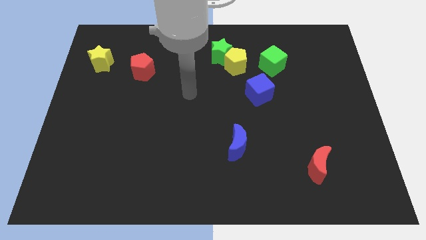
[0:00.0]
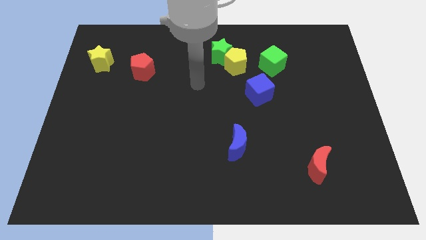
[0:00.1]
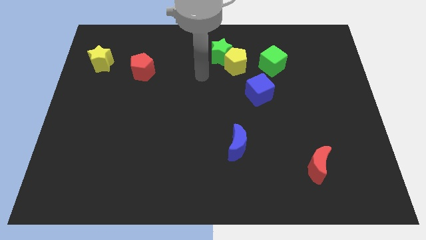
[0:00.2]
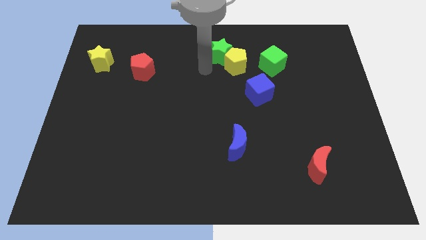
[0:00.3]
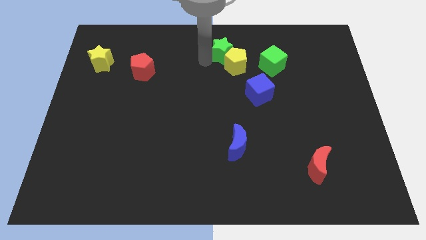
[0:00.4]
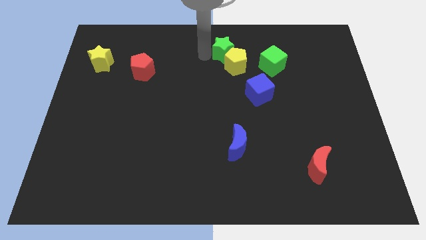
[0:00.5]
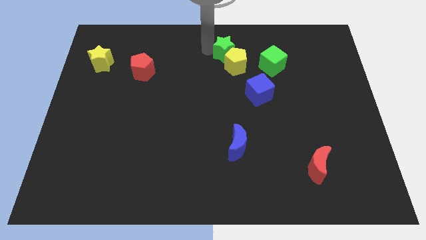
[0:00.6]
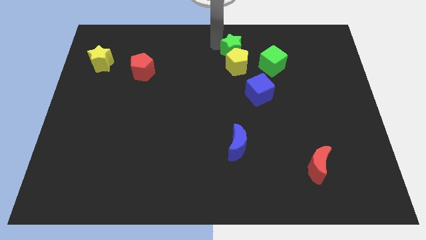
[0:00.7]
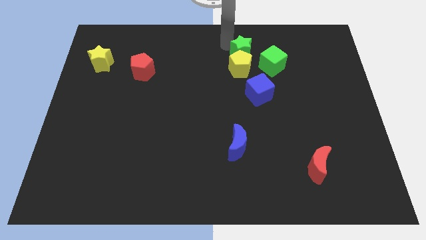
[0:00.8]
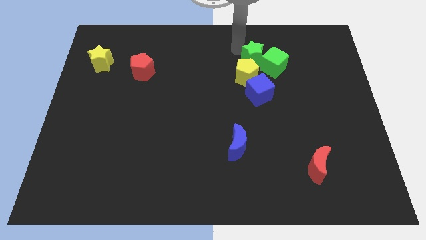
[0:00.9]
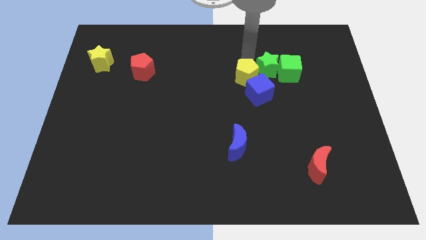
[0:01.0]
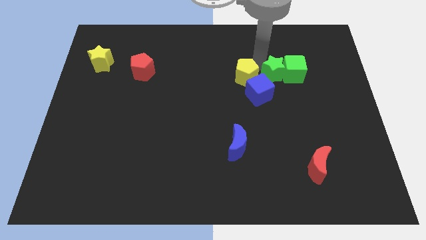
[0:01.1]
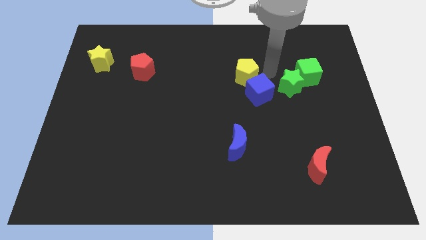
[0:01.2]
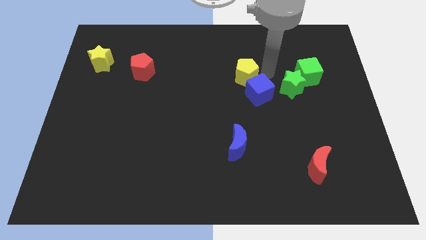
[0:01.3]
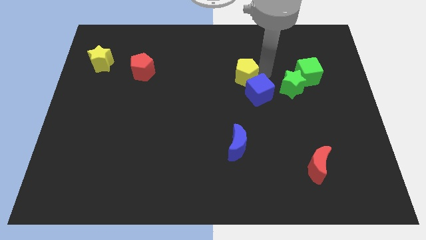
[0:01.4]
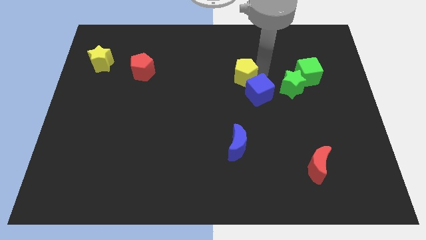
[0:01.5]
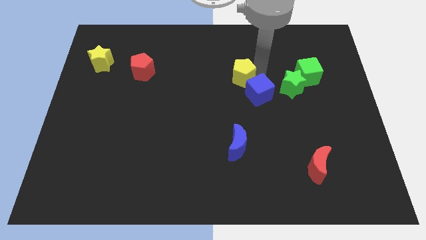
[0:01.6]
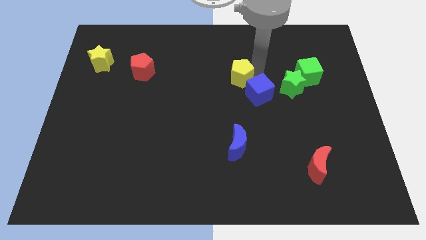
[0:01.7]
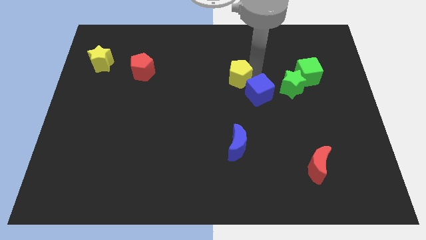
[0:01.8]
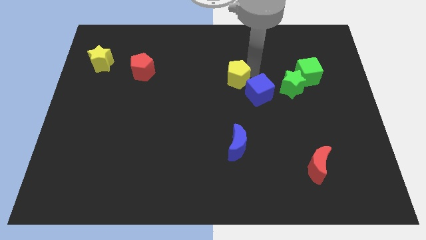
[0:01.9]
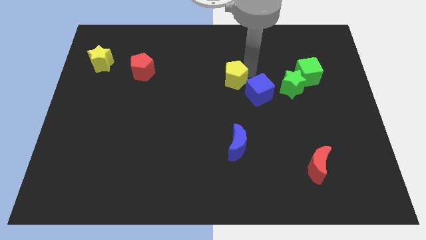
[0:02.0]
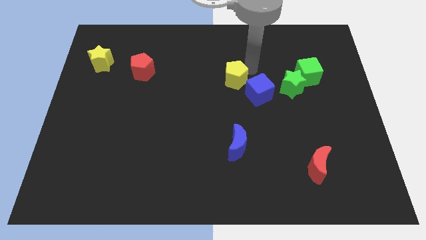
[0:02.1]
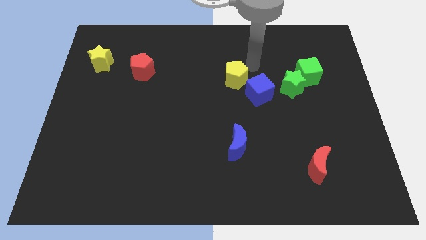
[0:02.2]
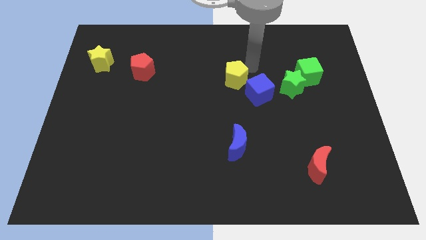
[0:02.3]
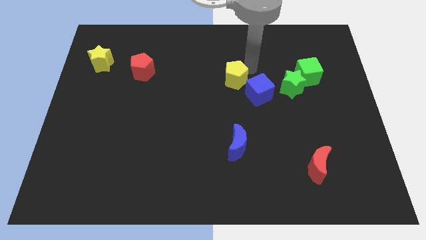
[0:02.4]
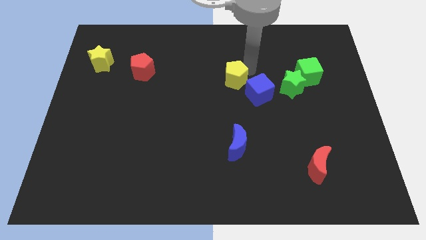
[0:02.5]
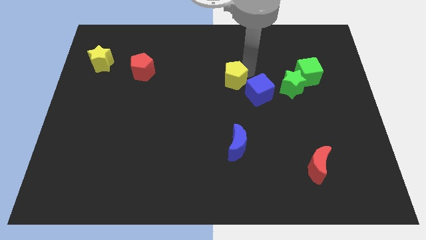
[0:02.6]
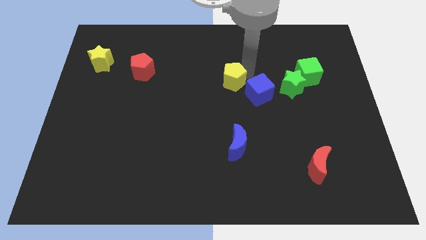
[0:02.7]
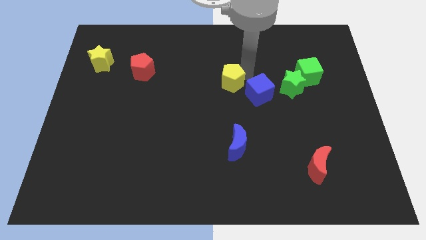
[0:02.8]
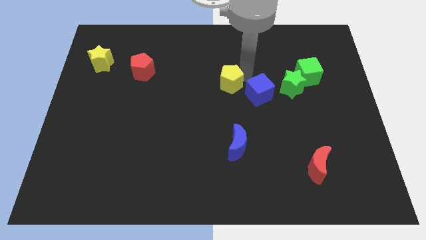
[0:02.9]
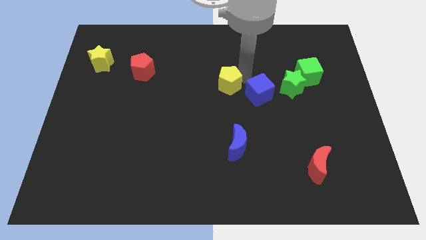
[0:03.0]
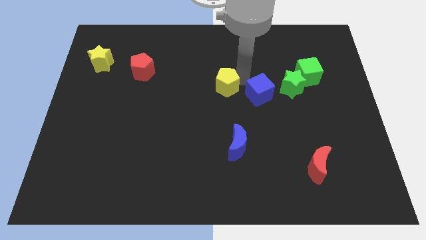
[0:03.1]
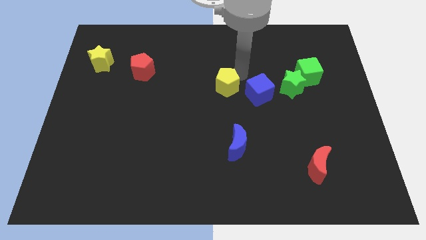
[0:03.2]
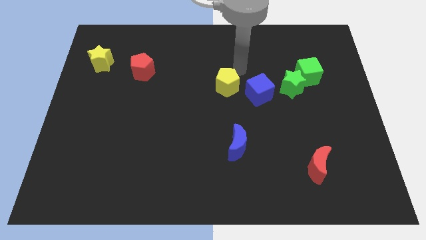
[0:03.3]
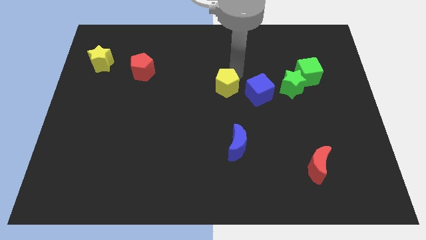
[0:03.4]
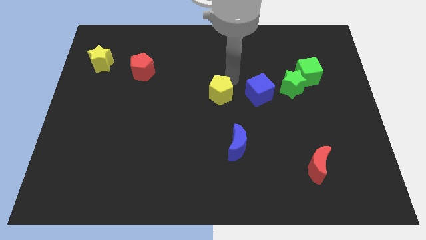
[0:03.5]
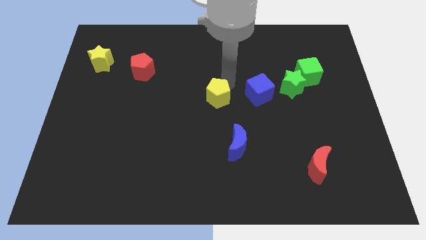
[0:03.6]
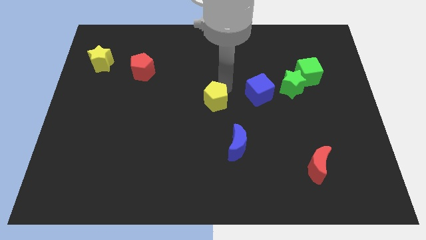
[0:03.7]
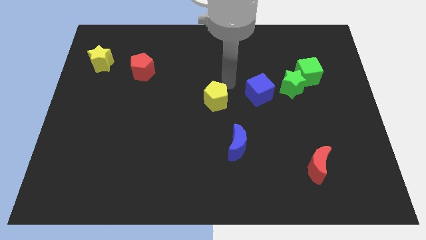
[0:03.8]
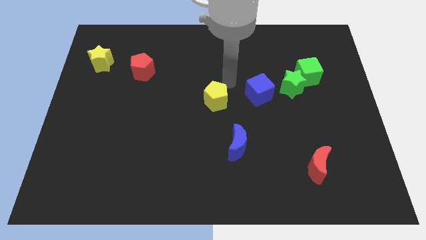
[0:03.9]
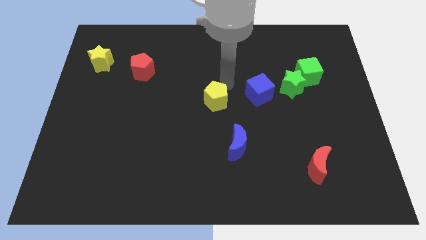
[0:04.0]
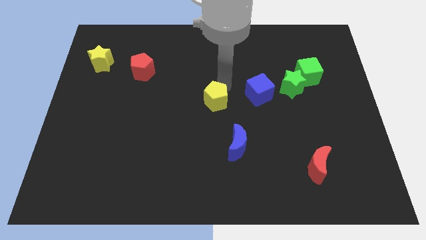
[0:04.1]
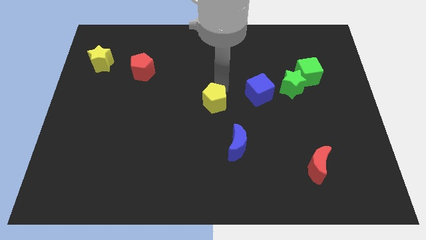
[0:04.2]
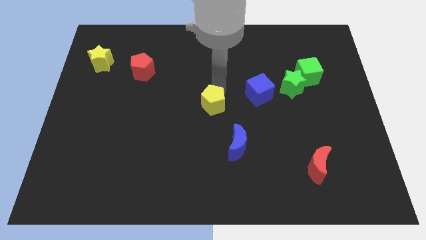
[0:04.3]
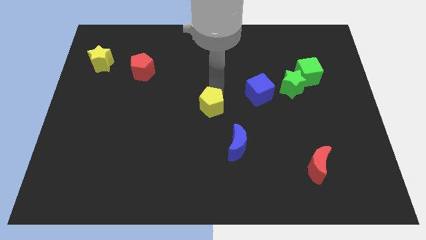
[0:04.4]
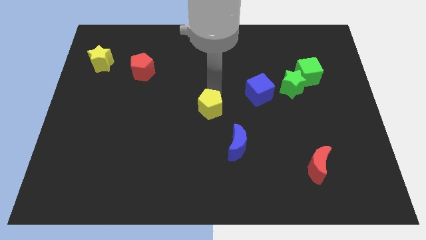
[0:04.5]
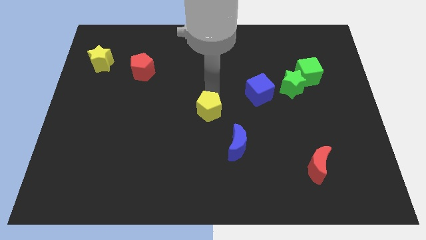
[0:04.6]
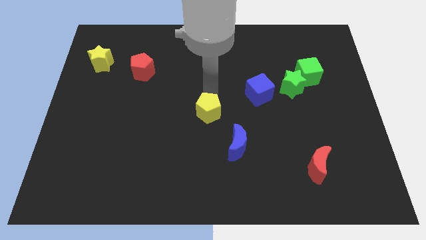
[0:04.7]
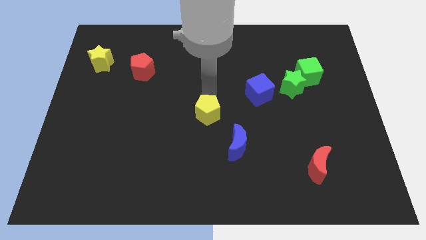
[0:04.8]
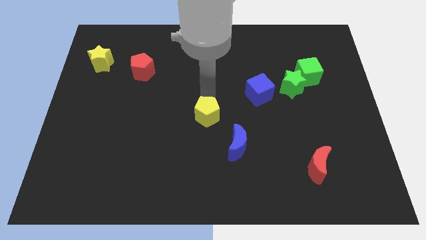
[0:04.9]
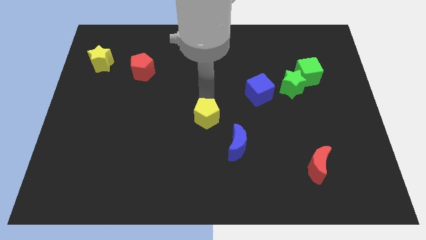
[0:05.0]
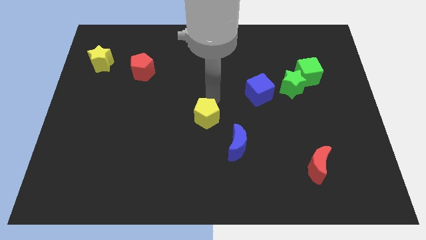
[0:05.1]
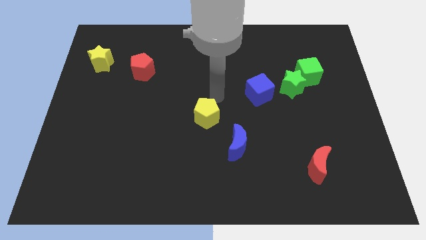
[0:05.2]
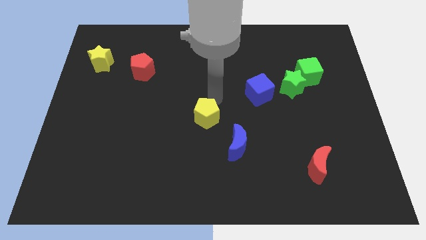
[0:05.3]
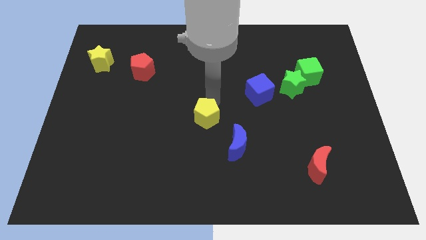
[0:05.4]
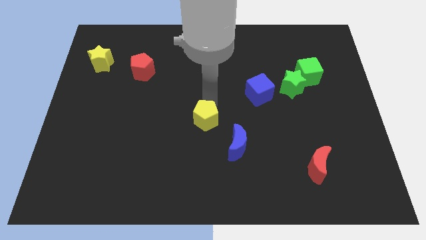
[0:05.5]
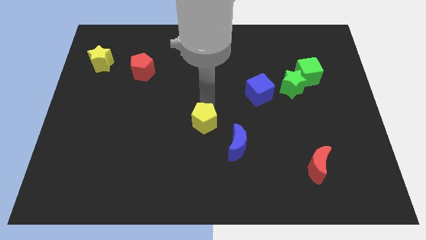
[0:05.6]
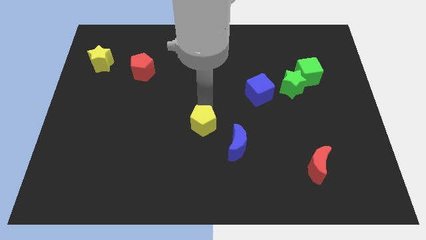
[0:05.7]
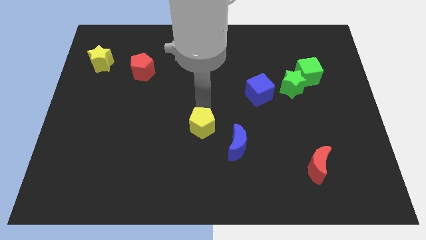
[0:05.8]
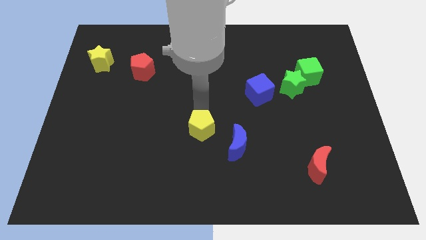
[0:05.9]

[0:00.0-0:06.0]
push the yellow pentagon just left of the blue moon

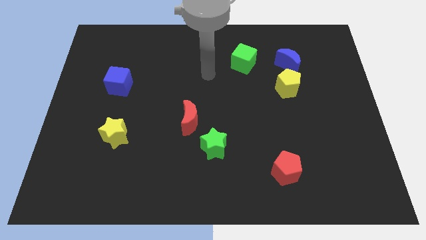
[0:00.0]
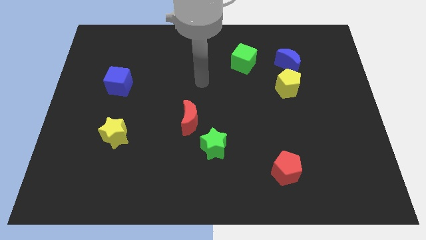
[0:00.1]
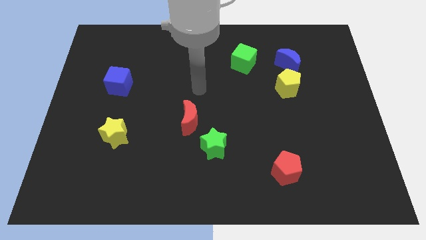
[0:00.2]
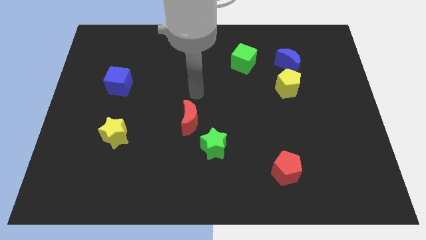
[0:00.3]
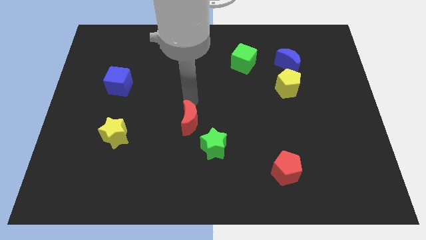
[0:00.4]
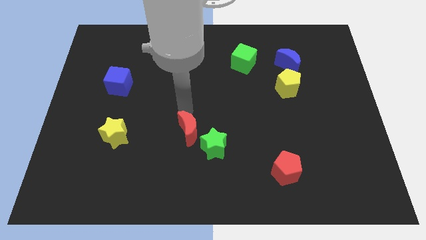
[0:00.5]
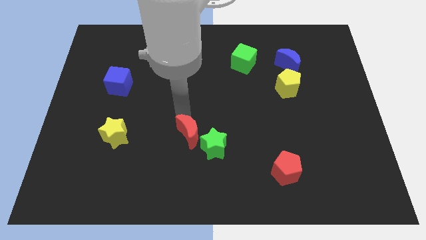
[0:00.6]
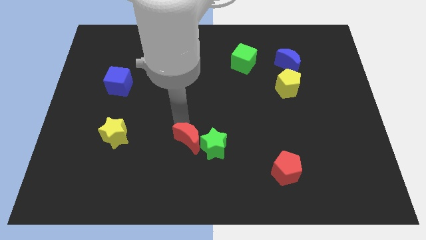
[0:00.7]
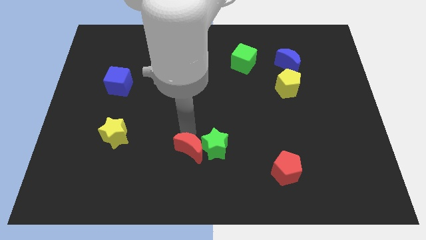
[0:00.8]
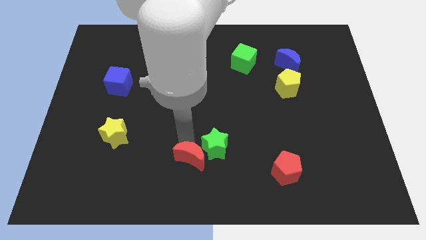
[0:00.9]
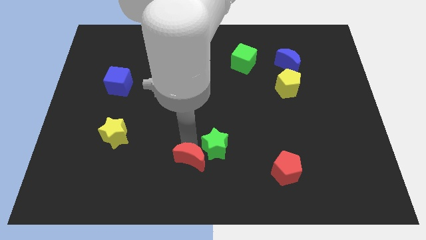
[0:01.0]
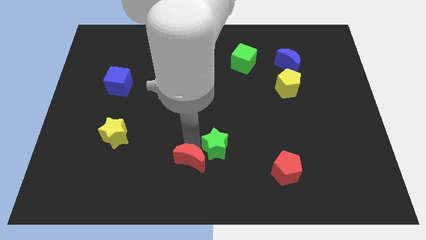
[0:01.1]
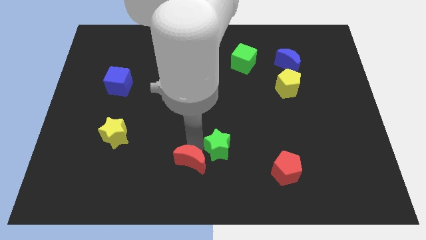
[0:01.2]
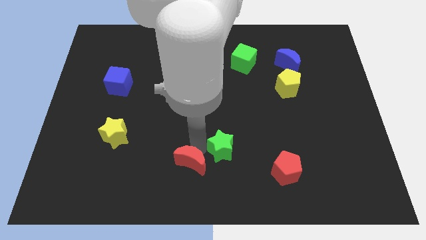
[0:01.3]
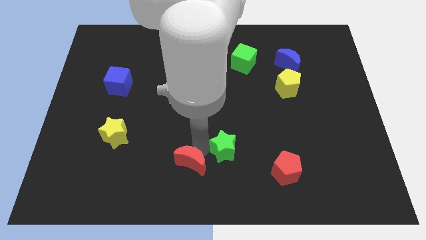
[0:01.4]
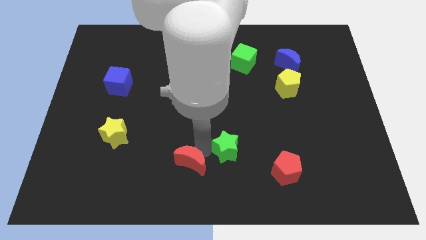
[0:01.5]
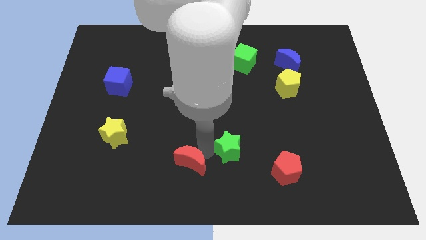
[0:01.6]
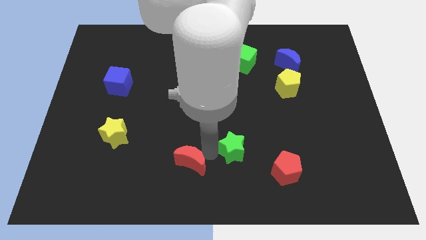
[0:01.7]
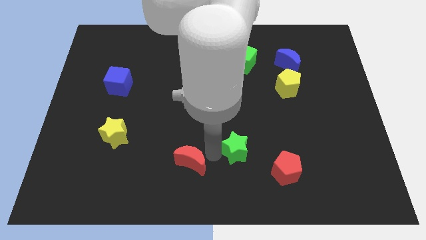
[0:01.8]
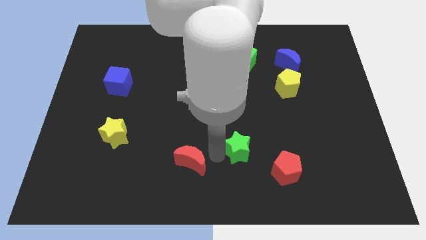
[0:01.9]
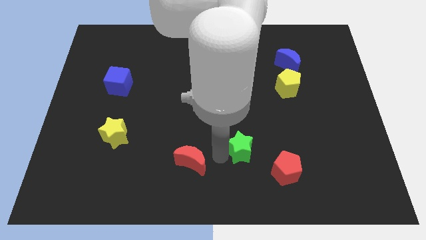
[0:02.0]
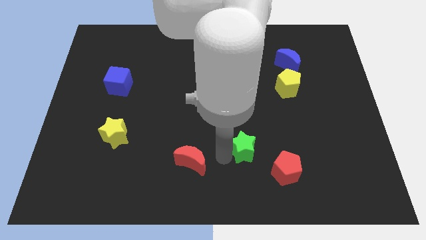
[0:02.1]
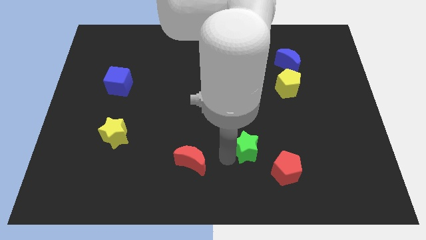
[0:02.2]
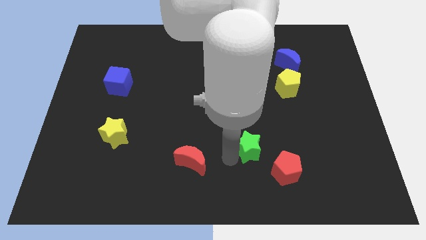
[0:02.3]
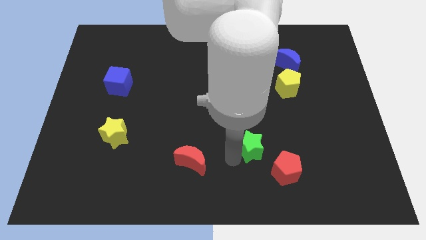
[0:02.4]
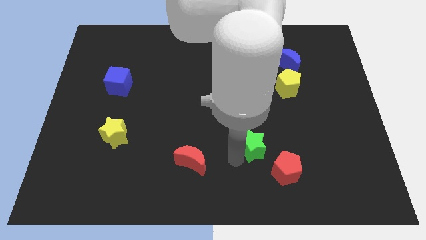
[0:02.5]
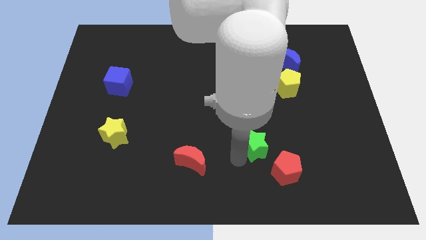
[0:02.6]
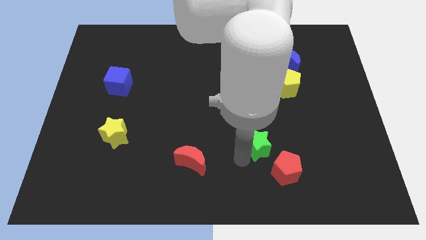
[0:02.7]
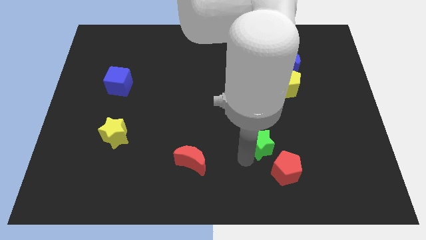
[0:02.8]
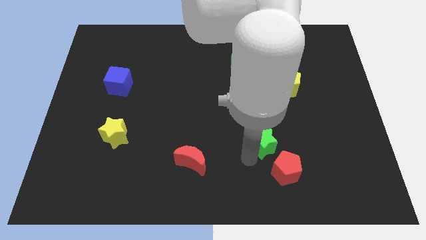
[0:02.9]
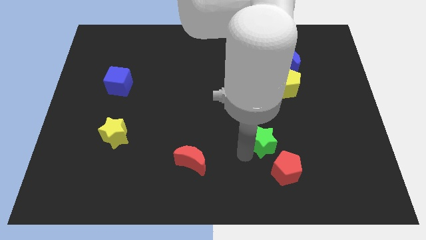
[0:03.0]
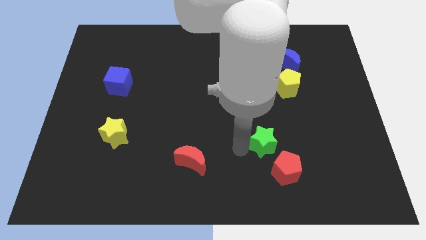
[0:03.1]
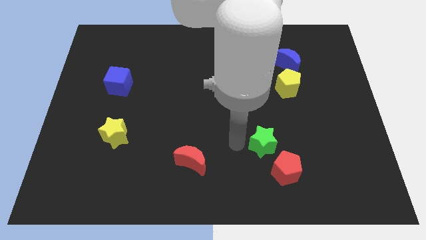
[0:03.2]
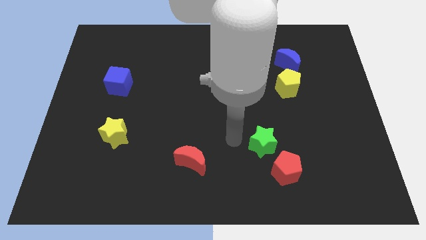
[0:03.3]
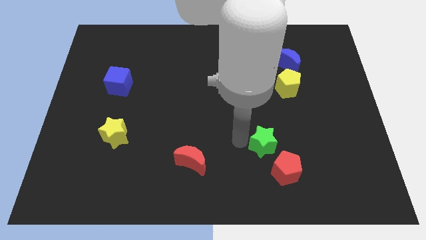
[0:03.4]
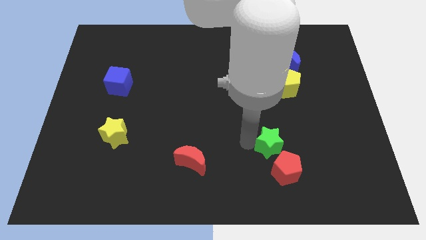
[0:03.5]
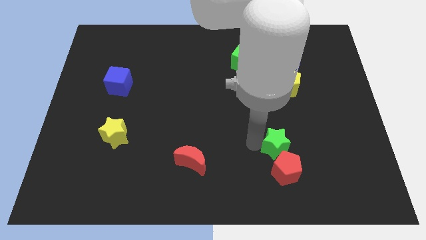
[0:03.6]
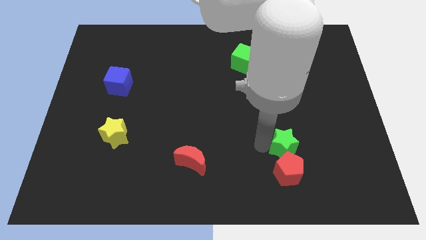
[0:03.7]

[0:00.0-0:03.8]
slide the green star to the top right of the red pentagon
